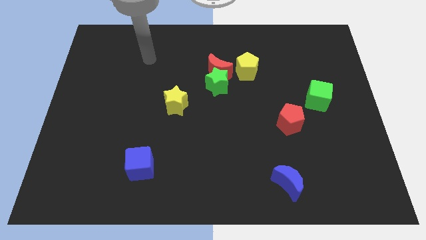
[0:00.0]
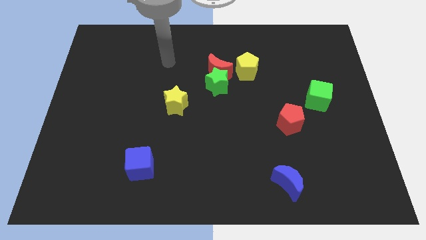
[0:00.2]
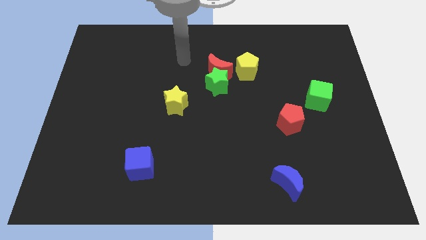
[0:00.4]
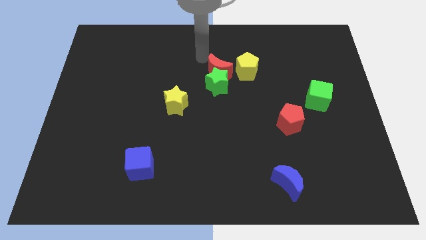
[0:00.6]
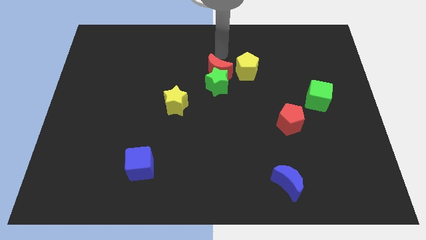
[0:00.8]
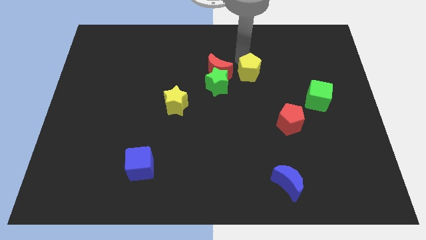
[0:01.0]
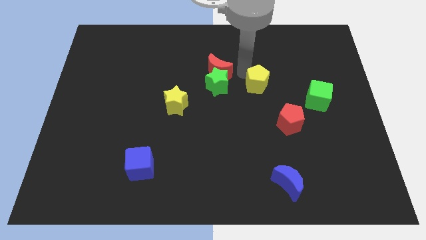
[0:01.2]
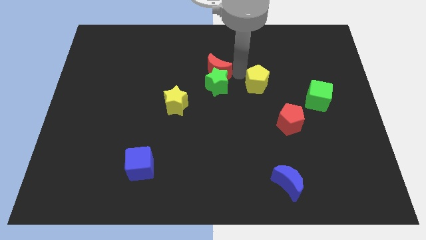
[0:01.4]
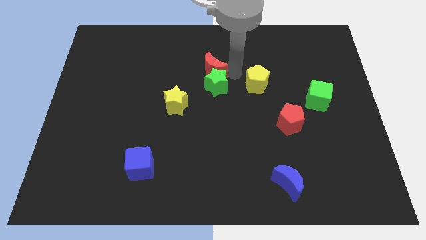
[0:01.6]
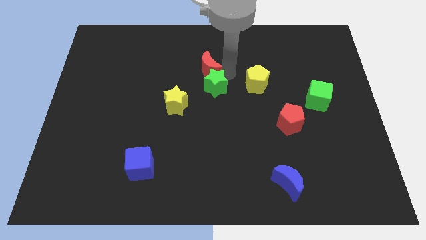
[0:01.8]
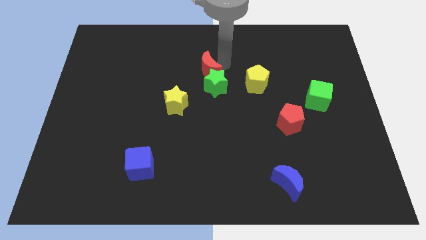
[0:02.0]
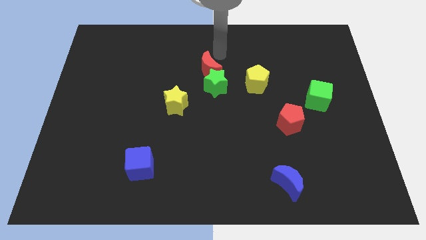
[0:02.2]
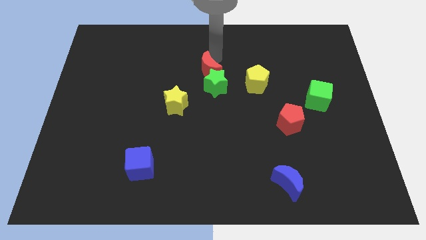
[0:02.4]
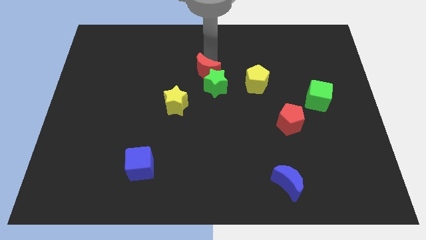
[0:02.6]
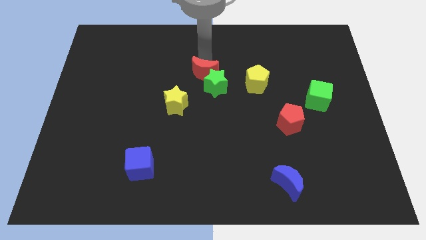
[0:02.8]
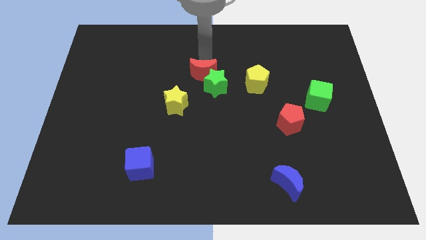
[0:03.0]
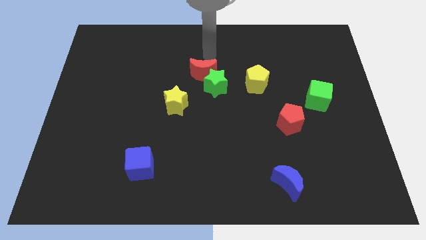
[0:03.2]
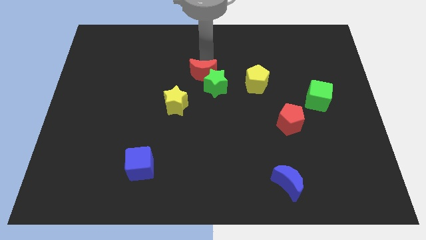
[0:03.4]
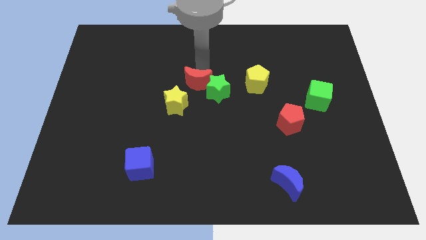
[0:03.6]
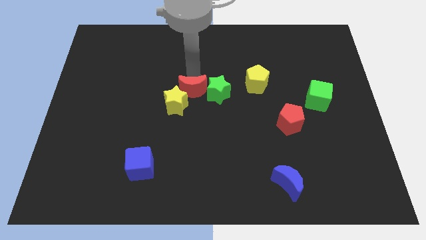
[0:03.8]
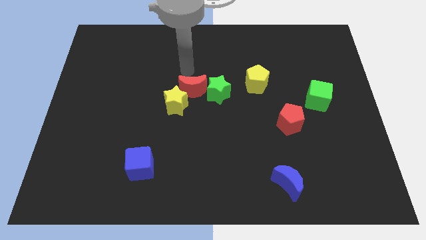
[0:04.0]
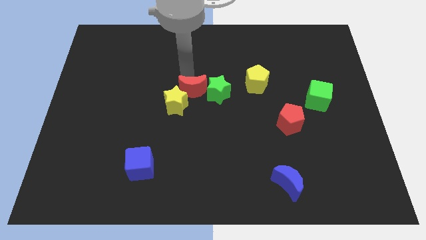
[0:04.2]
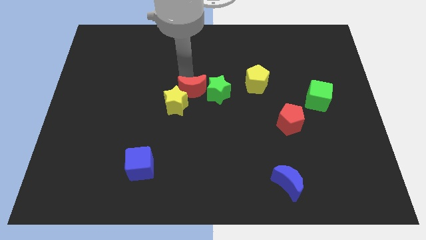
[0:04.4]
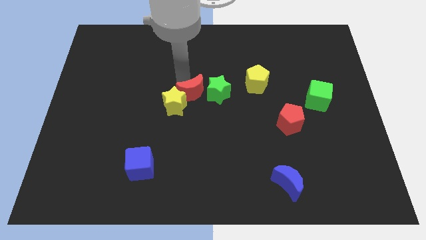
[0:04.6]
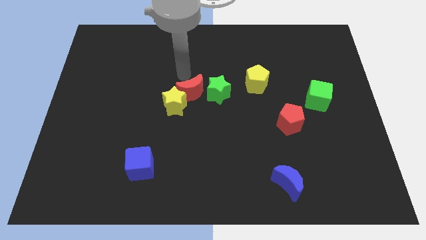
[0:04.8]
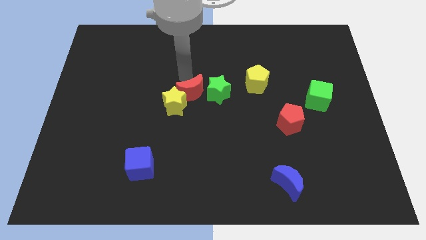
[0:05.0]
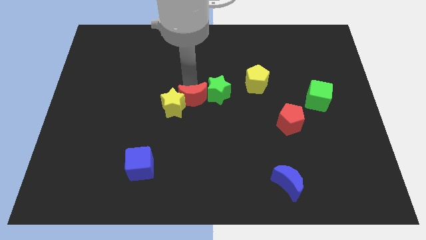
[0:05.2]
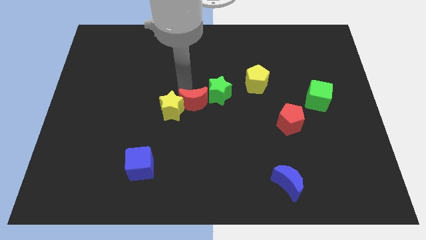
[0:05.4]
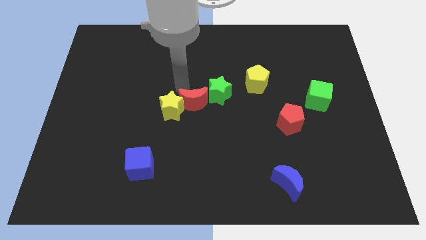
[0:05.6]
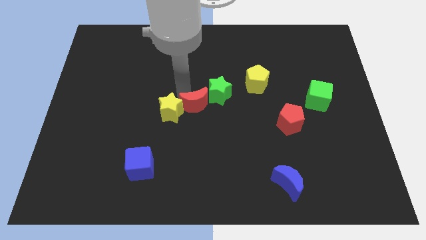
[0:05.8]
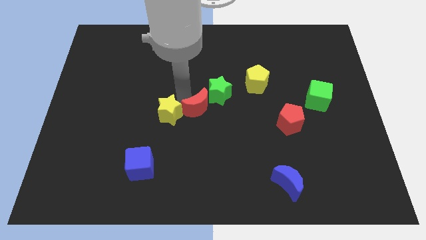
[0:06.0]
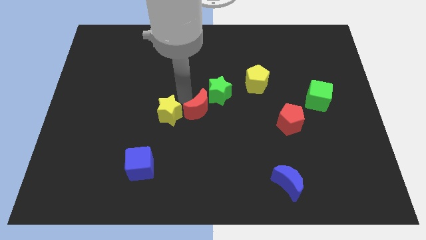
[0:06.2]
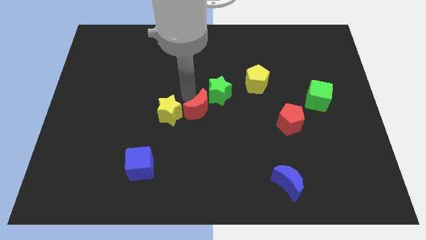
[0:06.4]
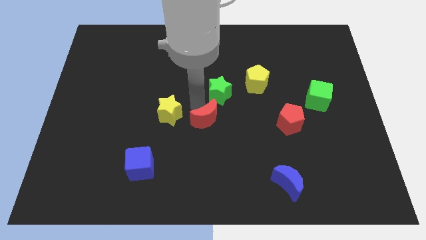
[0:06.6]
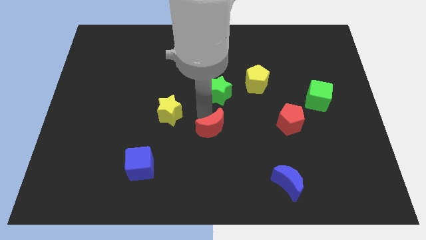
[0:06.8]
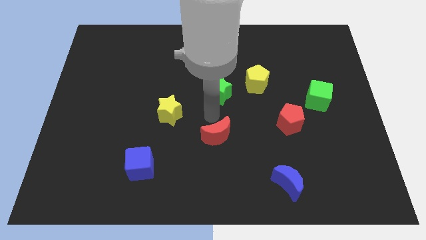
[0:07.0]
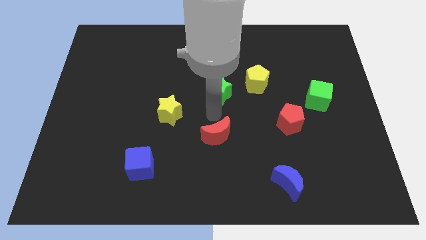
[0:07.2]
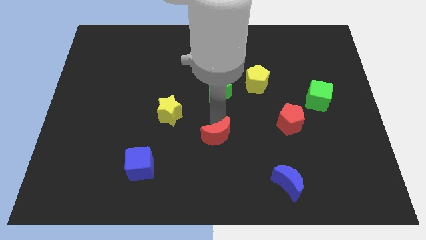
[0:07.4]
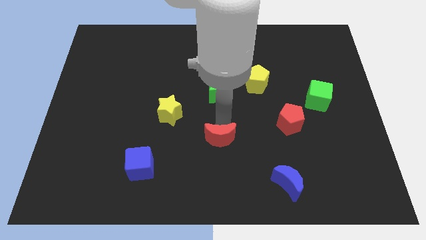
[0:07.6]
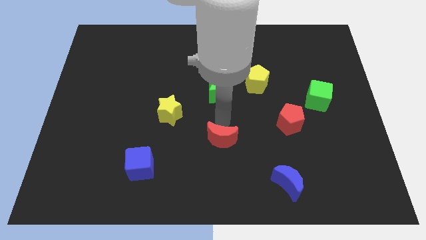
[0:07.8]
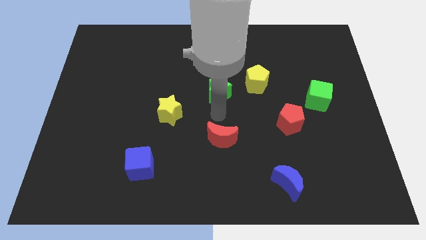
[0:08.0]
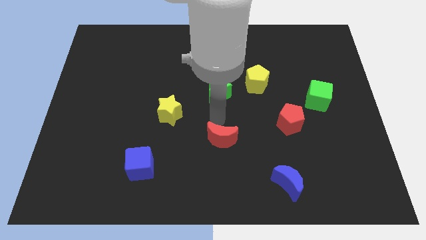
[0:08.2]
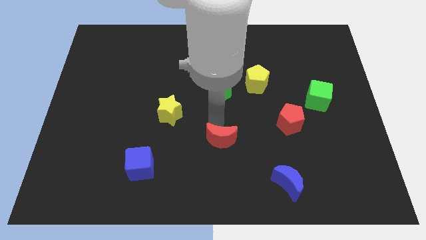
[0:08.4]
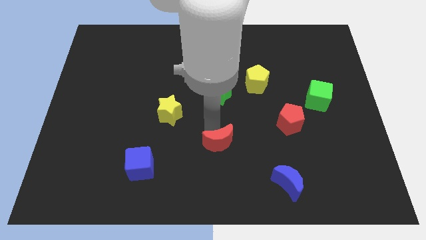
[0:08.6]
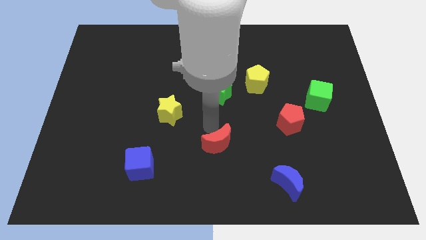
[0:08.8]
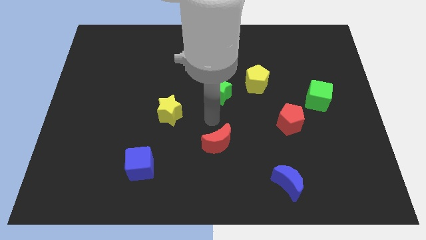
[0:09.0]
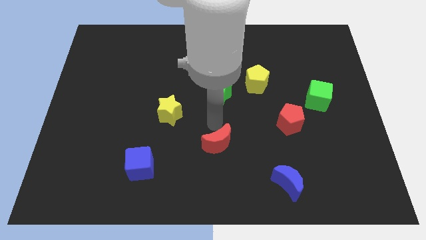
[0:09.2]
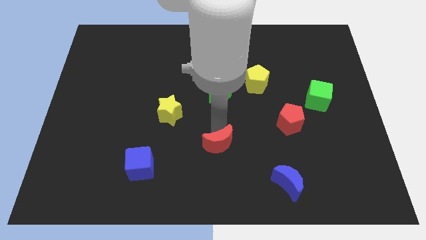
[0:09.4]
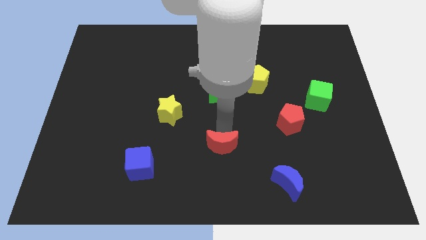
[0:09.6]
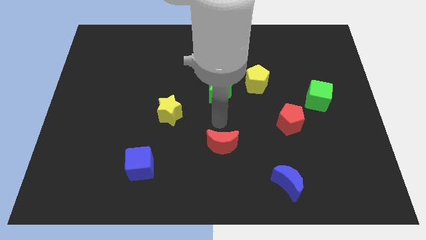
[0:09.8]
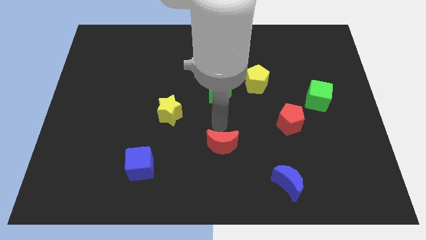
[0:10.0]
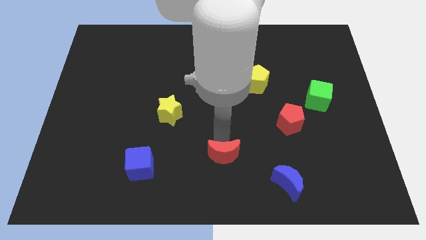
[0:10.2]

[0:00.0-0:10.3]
push the red moon to the bottom side

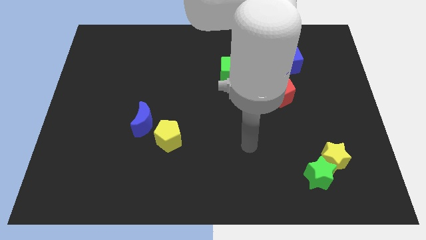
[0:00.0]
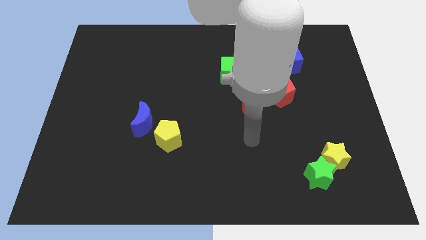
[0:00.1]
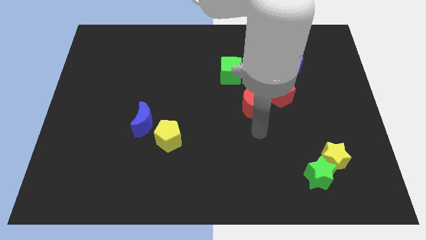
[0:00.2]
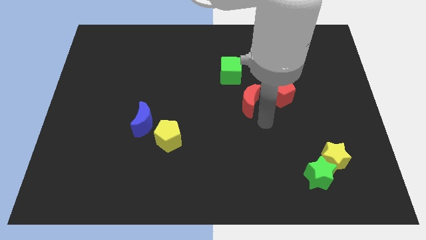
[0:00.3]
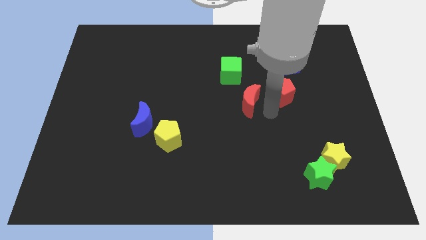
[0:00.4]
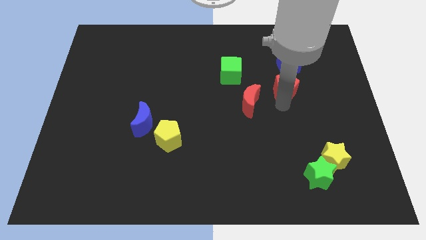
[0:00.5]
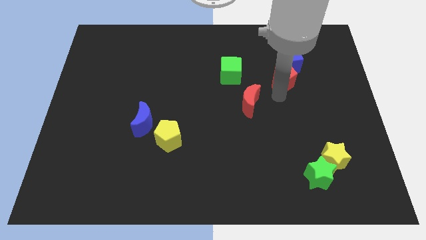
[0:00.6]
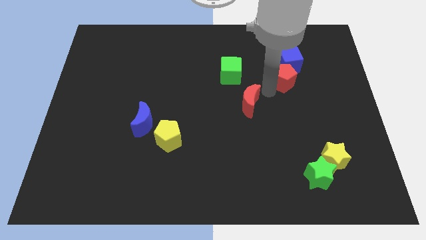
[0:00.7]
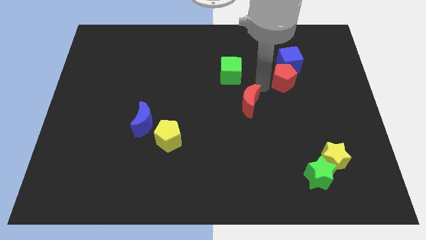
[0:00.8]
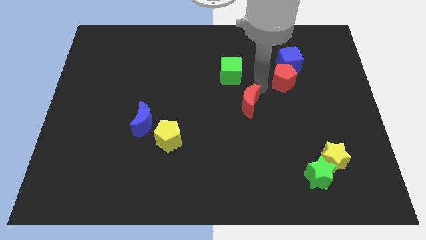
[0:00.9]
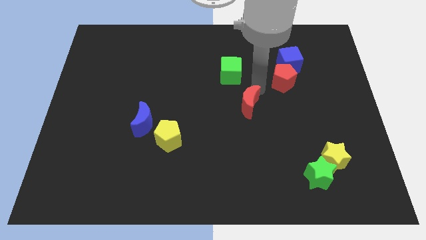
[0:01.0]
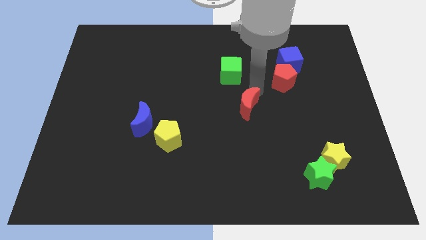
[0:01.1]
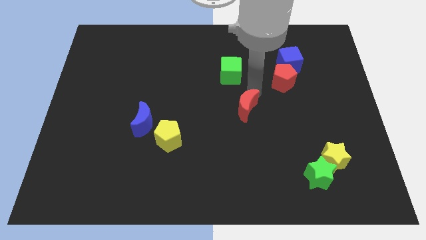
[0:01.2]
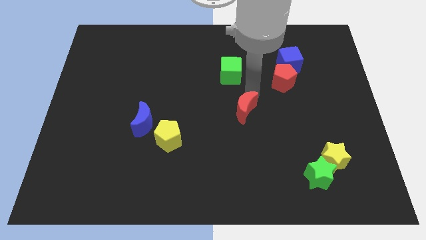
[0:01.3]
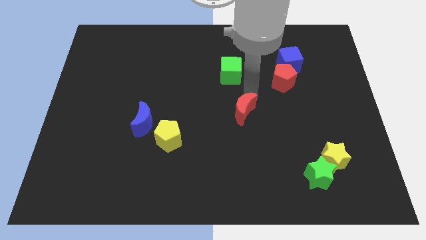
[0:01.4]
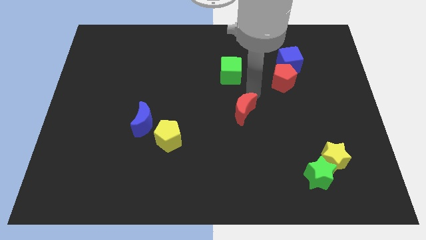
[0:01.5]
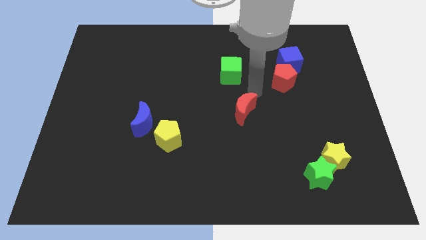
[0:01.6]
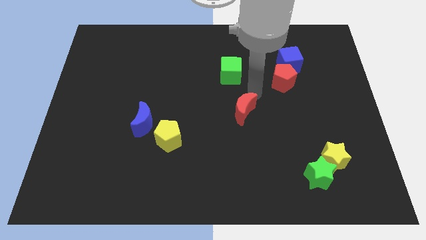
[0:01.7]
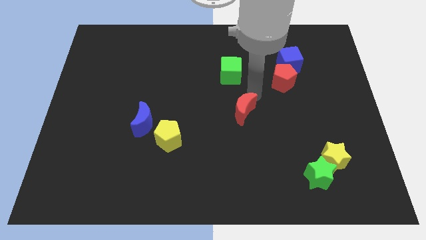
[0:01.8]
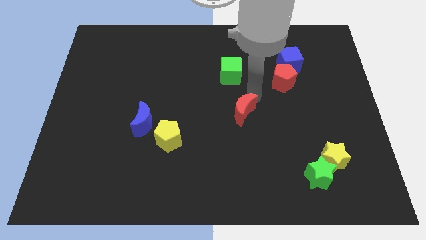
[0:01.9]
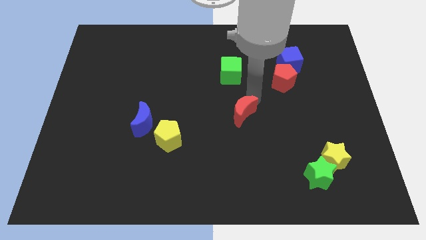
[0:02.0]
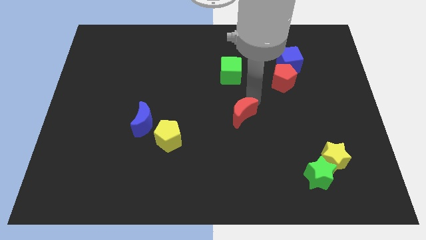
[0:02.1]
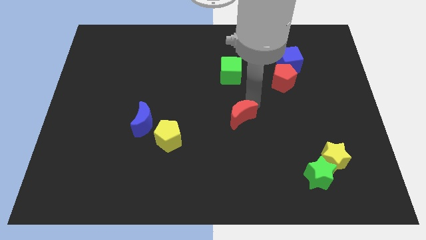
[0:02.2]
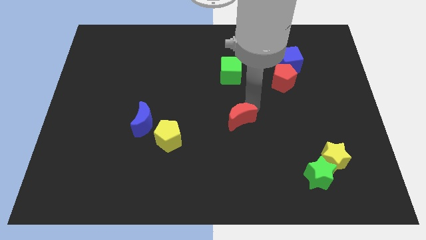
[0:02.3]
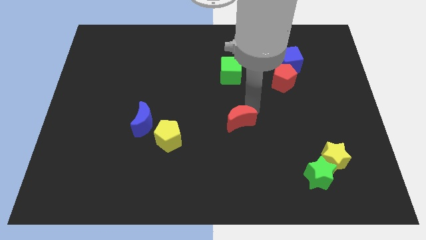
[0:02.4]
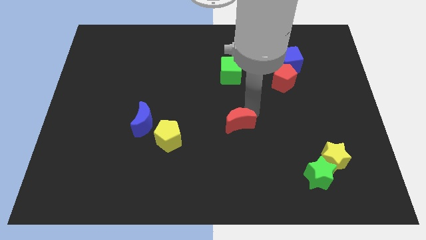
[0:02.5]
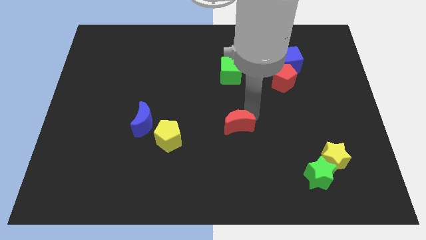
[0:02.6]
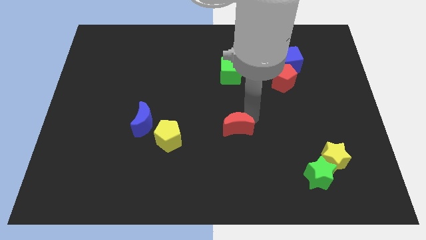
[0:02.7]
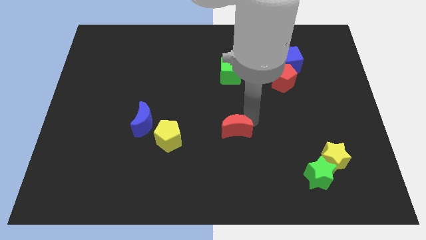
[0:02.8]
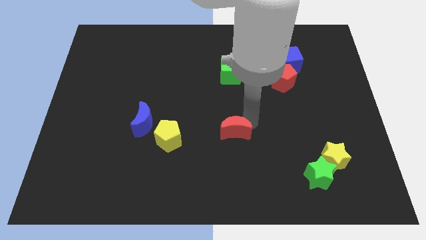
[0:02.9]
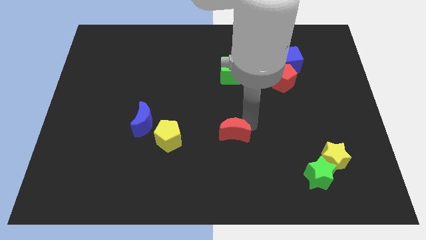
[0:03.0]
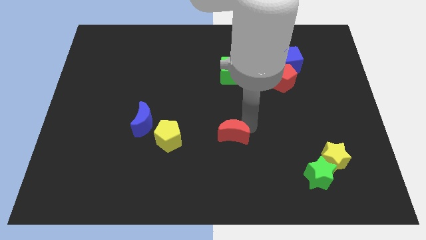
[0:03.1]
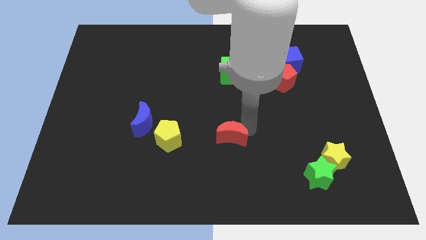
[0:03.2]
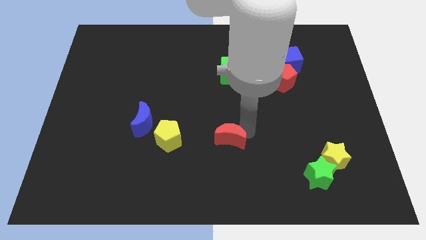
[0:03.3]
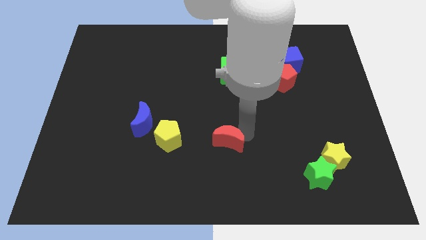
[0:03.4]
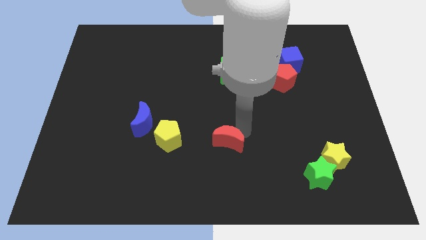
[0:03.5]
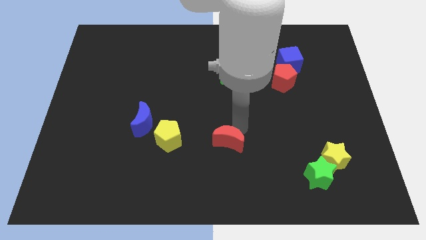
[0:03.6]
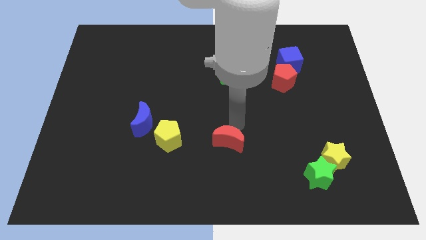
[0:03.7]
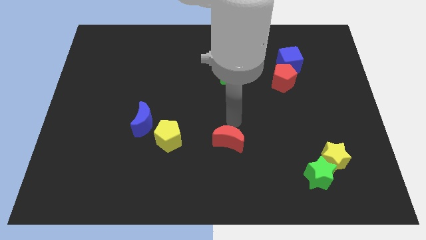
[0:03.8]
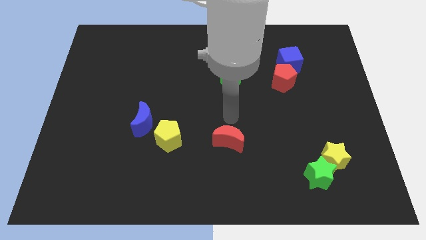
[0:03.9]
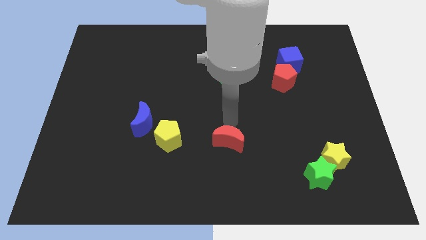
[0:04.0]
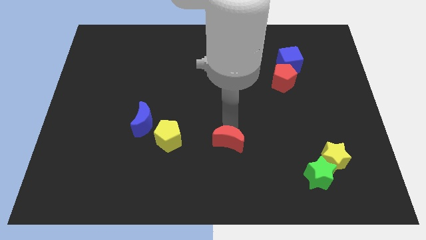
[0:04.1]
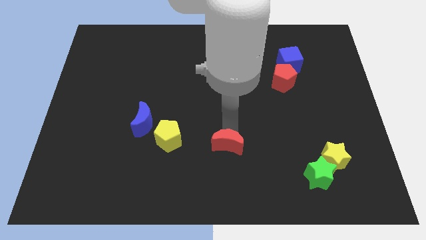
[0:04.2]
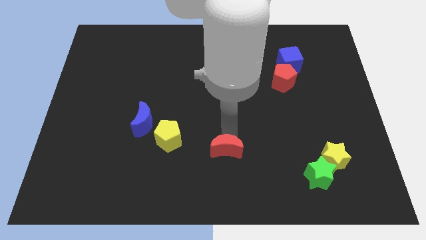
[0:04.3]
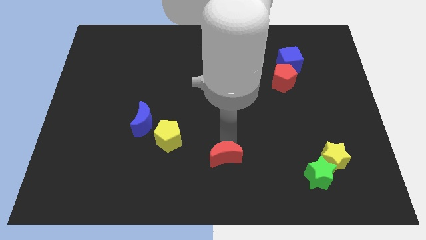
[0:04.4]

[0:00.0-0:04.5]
slide the red moon to the bottom
